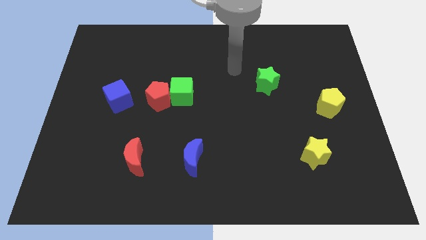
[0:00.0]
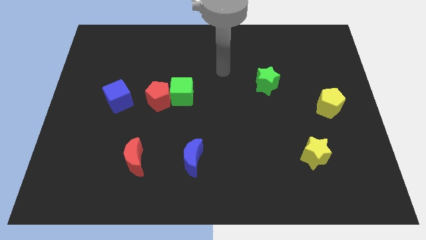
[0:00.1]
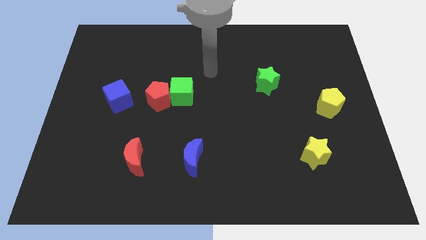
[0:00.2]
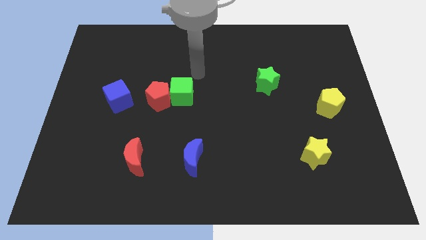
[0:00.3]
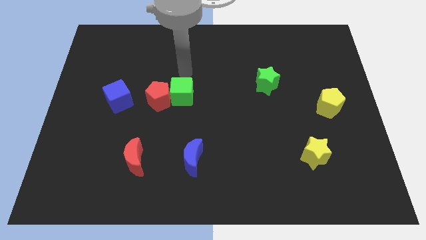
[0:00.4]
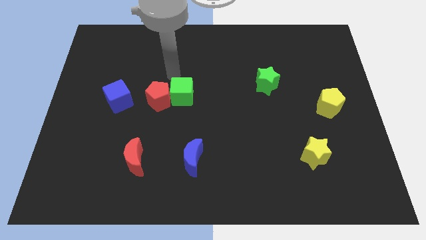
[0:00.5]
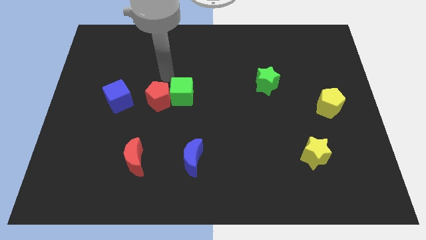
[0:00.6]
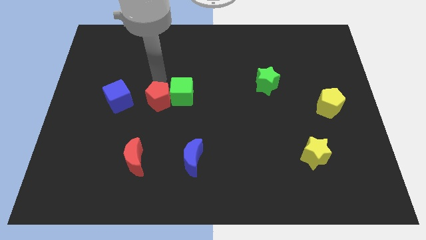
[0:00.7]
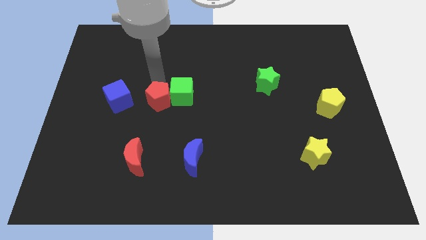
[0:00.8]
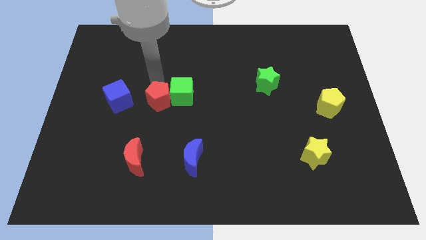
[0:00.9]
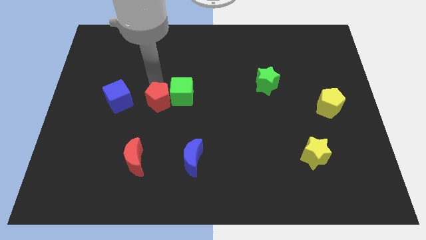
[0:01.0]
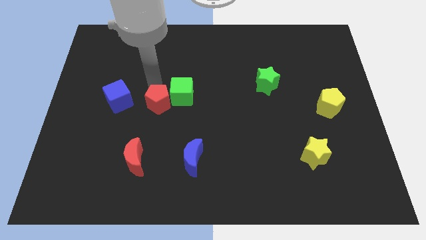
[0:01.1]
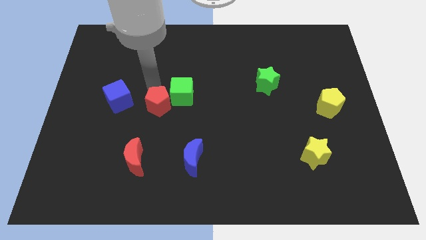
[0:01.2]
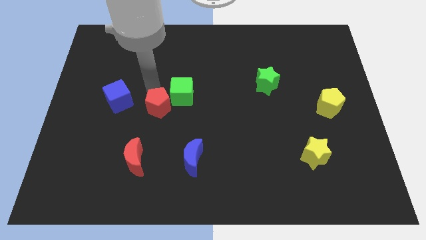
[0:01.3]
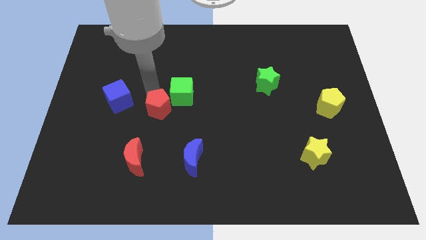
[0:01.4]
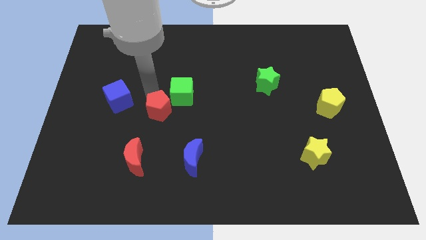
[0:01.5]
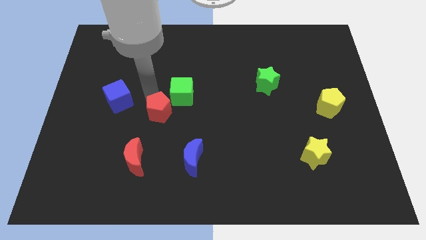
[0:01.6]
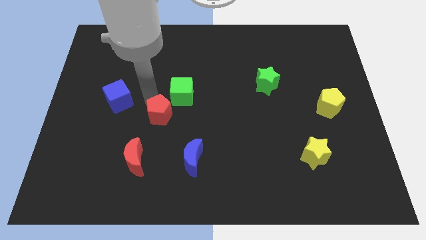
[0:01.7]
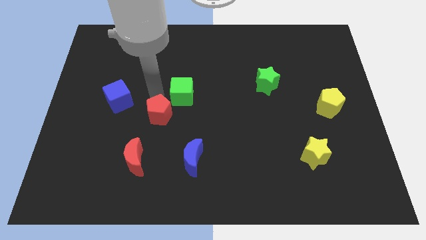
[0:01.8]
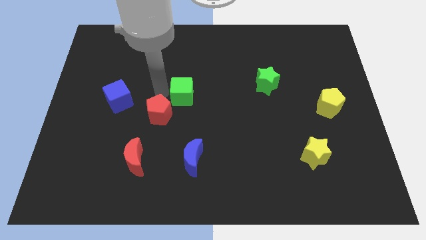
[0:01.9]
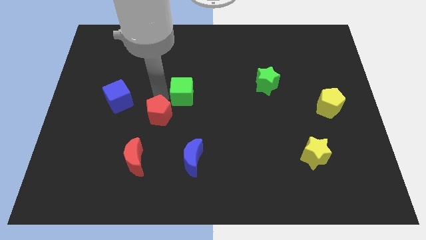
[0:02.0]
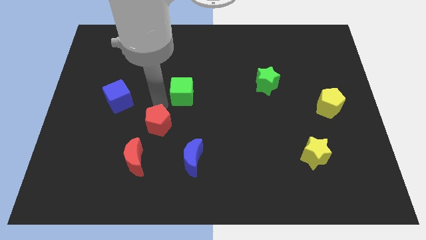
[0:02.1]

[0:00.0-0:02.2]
move the red pentagon somewhat down

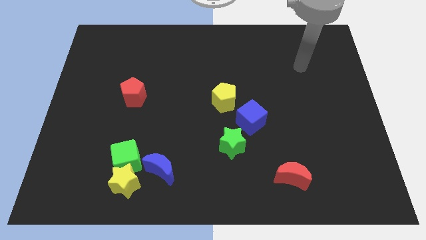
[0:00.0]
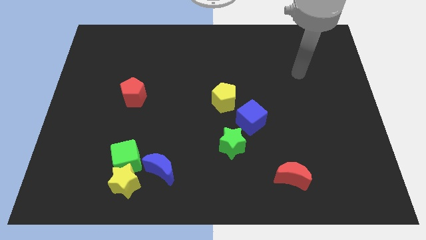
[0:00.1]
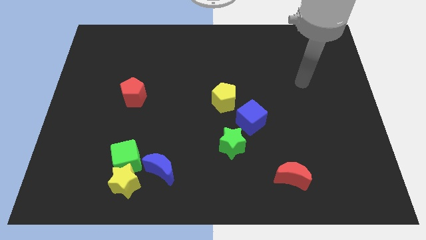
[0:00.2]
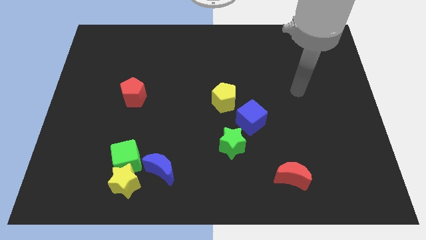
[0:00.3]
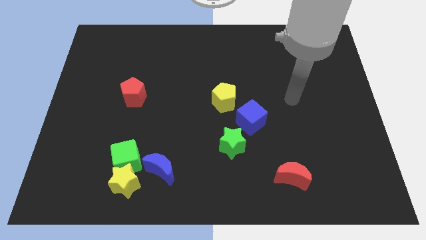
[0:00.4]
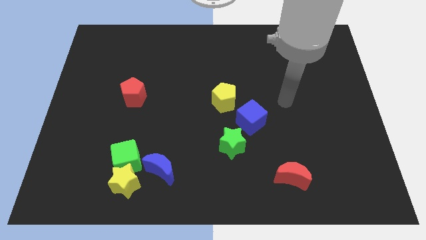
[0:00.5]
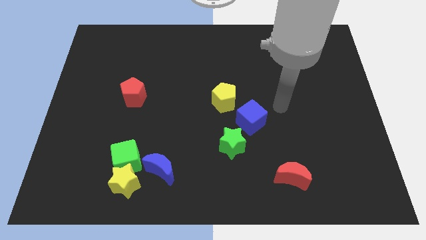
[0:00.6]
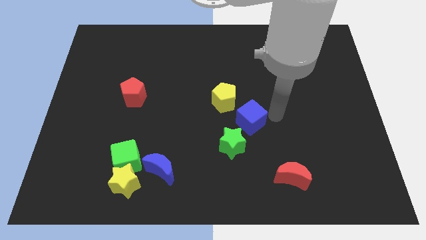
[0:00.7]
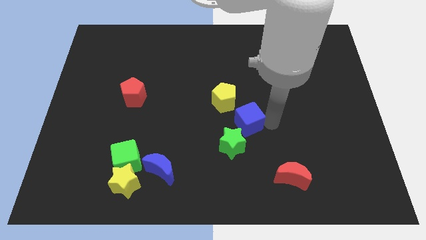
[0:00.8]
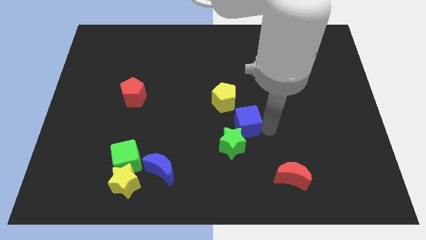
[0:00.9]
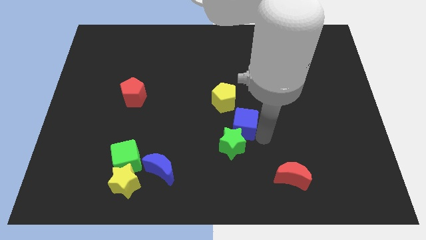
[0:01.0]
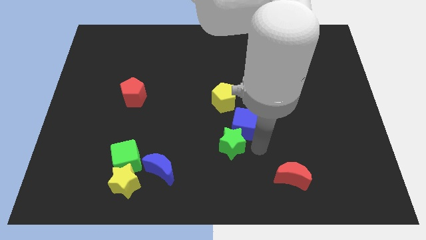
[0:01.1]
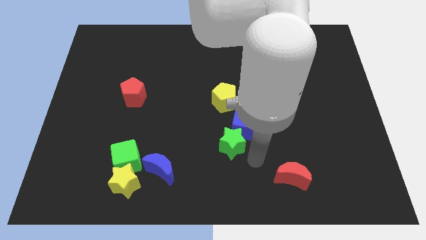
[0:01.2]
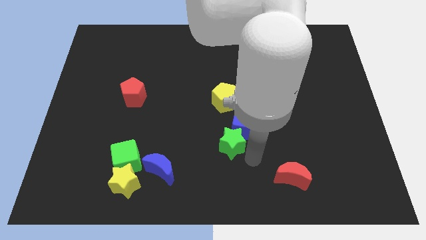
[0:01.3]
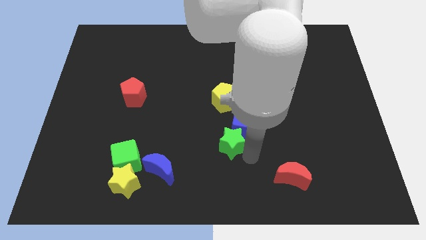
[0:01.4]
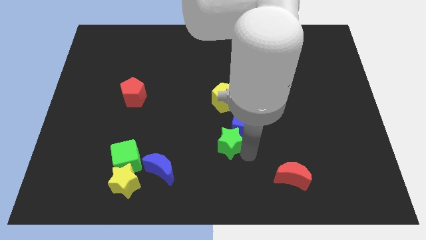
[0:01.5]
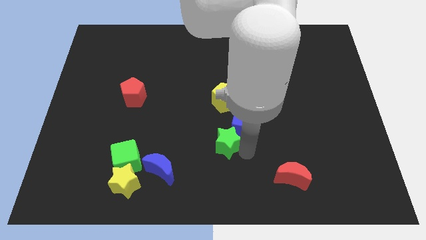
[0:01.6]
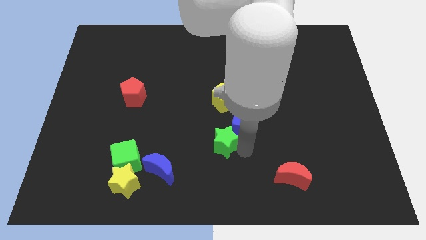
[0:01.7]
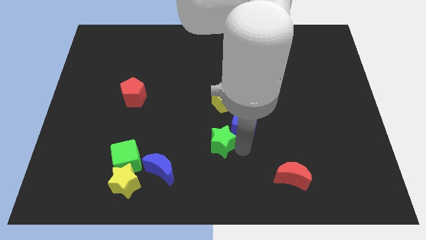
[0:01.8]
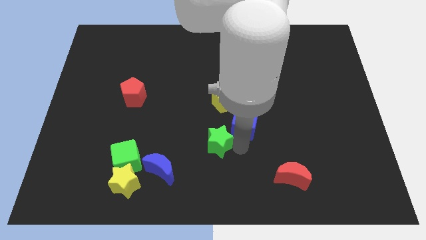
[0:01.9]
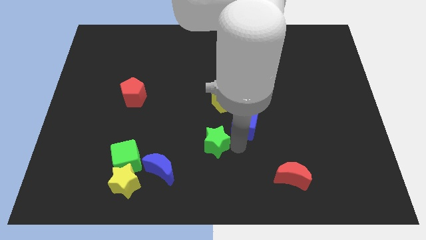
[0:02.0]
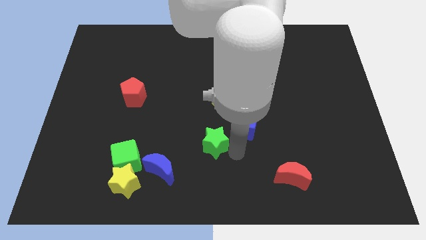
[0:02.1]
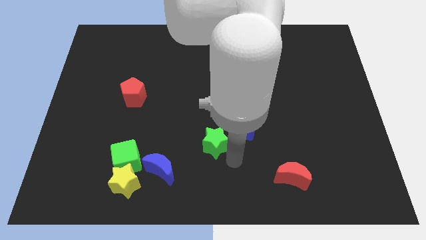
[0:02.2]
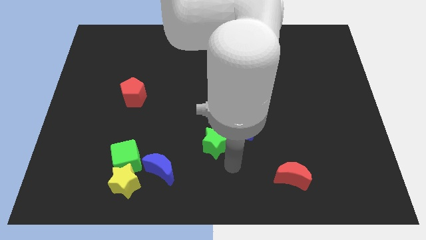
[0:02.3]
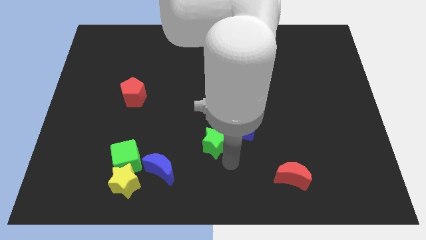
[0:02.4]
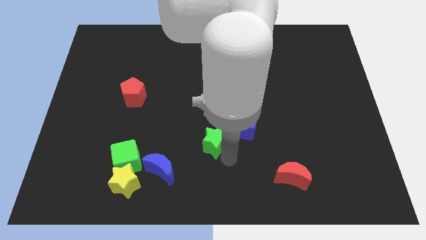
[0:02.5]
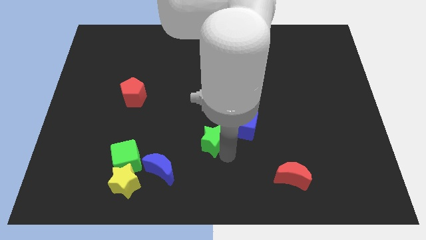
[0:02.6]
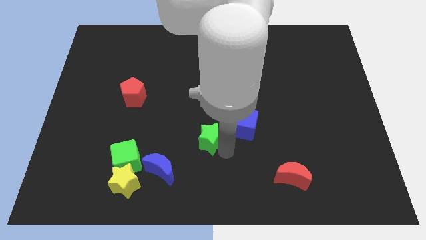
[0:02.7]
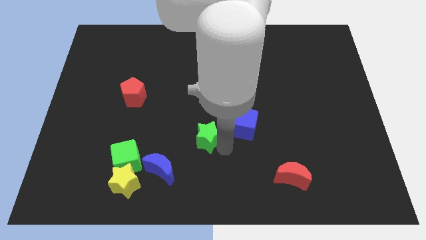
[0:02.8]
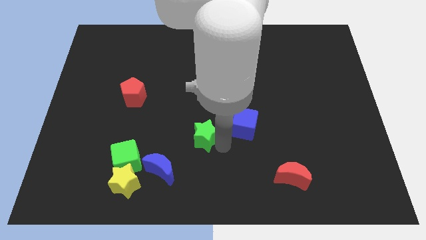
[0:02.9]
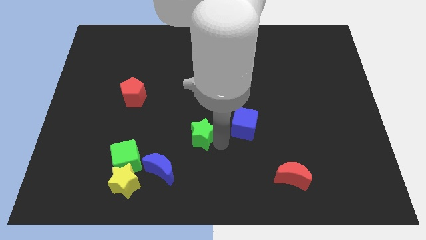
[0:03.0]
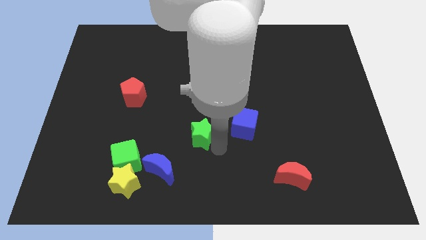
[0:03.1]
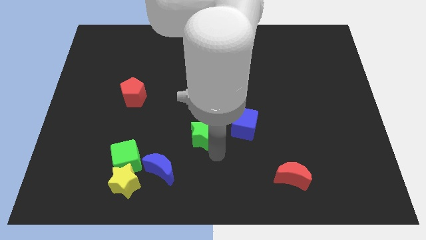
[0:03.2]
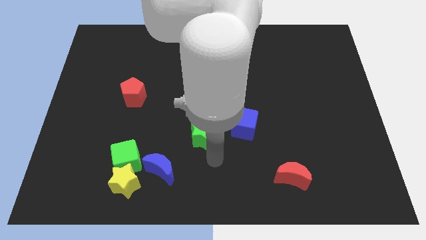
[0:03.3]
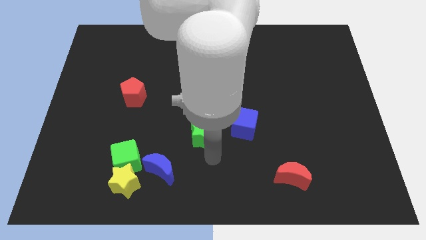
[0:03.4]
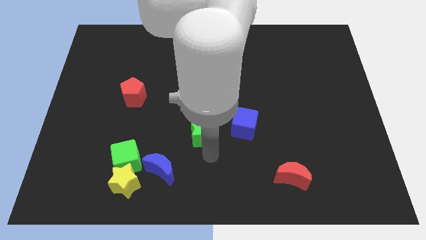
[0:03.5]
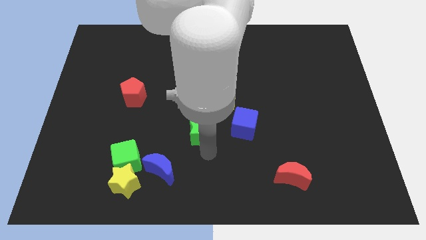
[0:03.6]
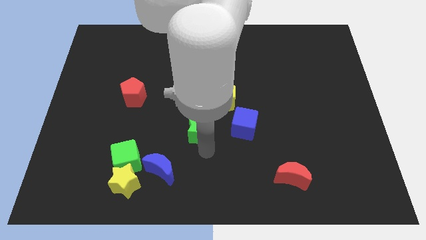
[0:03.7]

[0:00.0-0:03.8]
push the green star slightly diagonally up and to the left

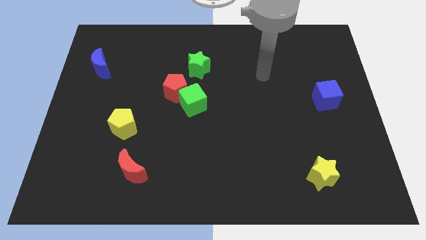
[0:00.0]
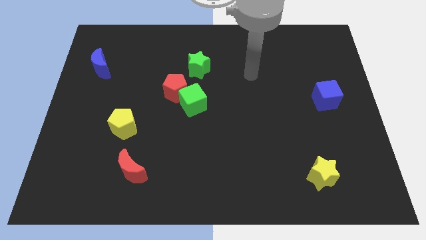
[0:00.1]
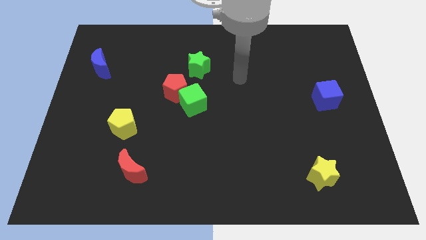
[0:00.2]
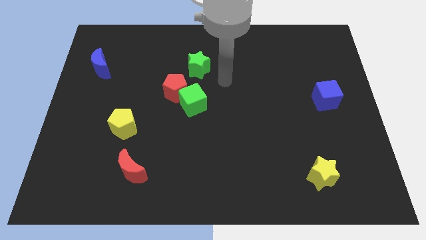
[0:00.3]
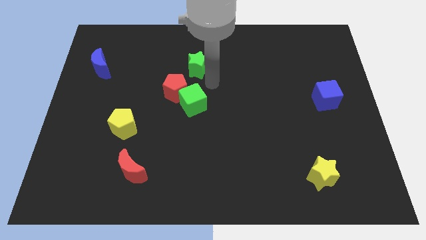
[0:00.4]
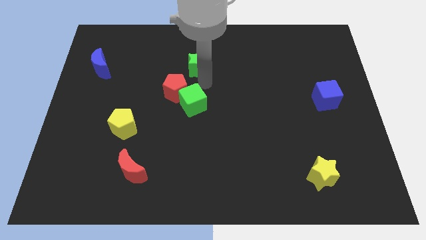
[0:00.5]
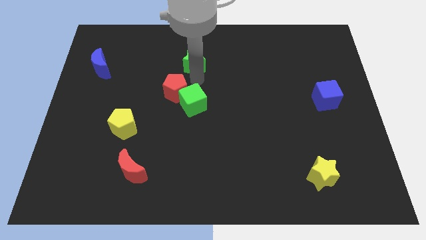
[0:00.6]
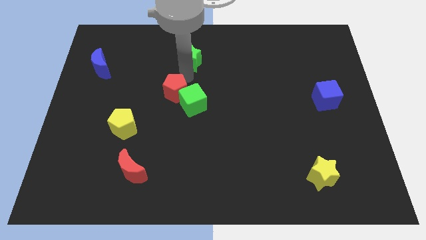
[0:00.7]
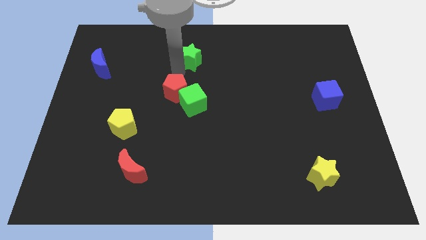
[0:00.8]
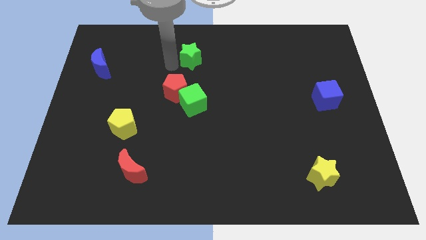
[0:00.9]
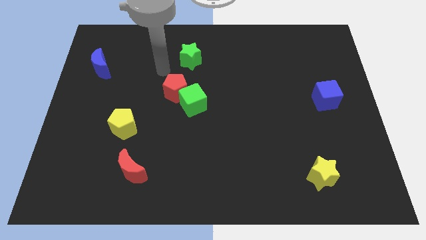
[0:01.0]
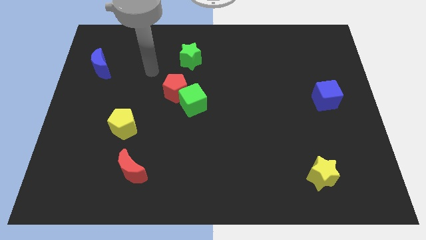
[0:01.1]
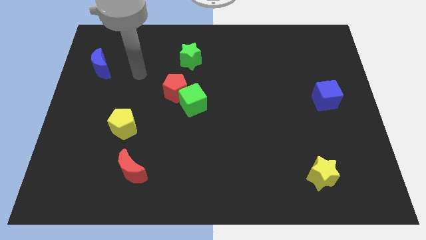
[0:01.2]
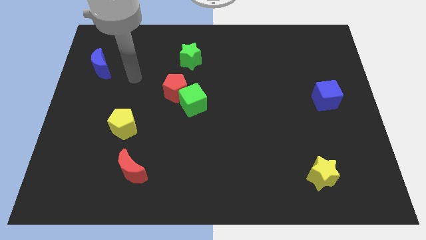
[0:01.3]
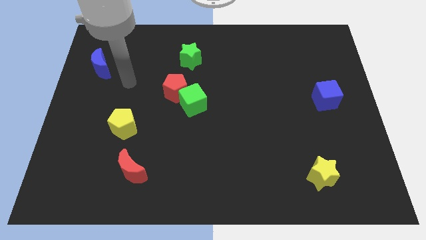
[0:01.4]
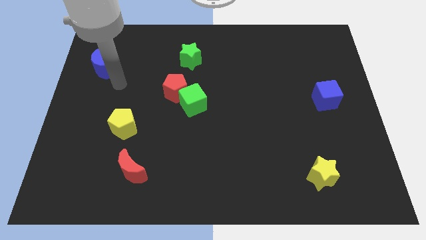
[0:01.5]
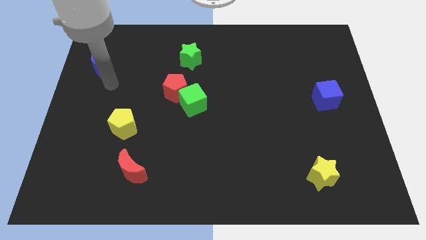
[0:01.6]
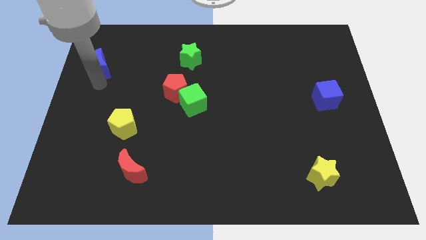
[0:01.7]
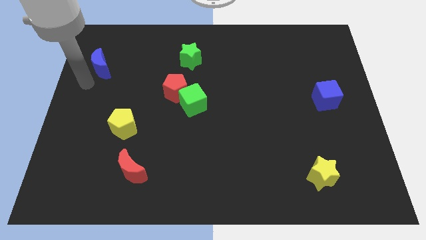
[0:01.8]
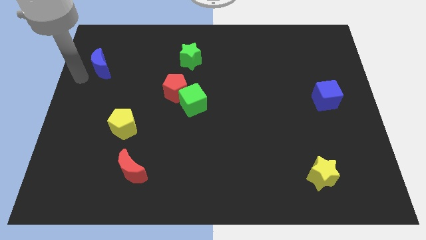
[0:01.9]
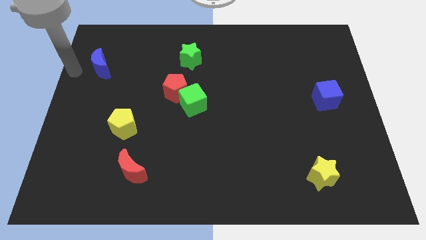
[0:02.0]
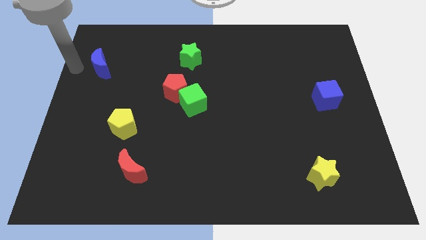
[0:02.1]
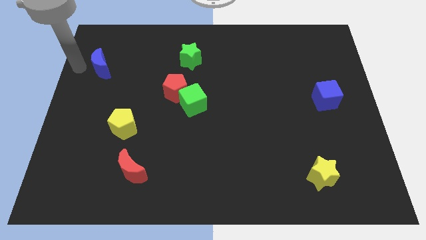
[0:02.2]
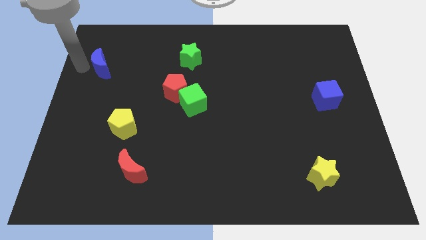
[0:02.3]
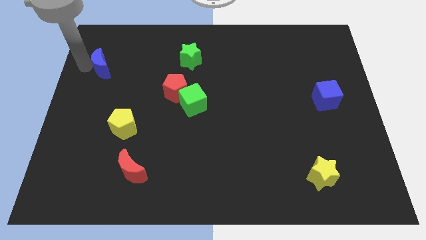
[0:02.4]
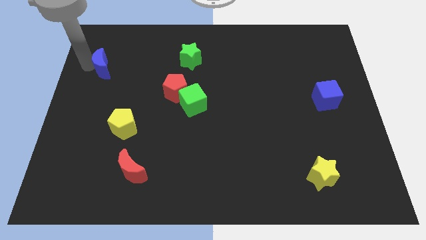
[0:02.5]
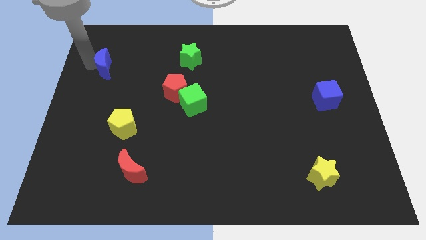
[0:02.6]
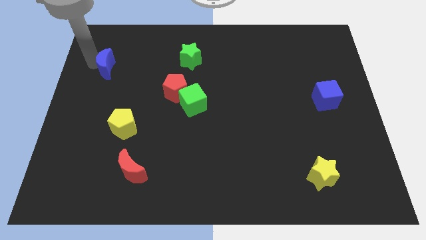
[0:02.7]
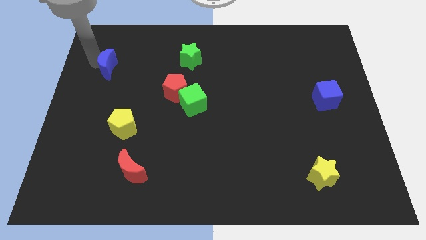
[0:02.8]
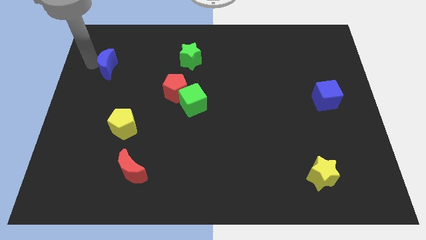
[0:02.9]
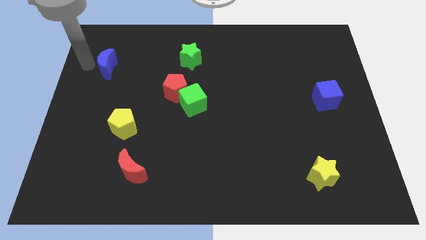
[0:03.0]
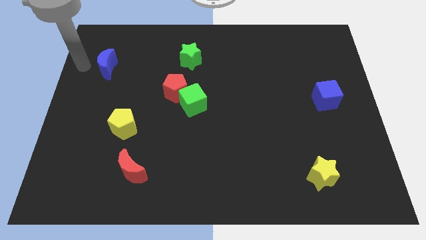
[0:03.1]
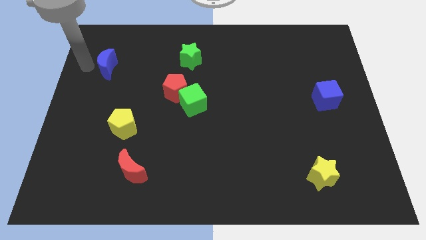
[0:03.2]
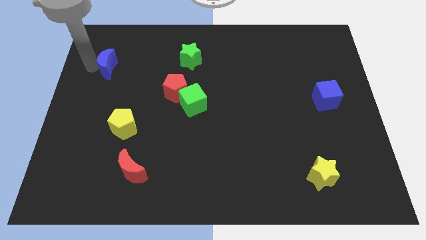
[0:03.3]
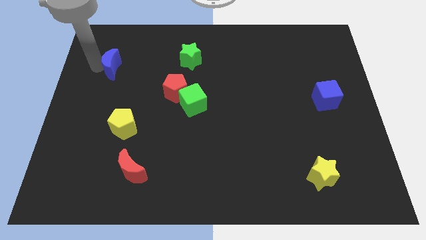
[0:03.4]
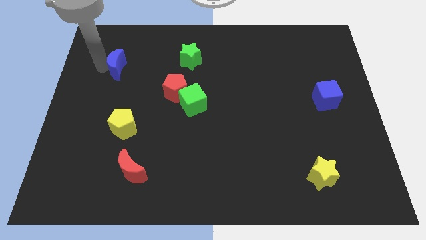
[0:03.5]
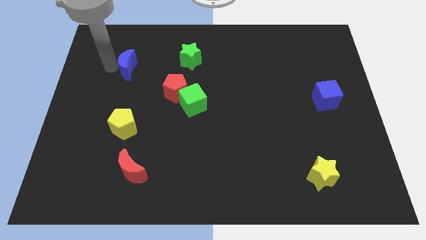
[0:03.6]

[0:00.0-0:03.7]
slightly move the blue moon to the right
